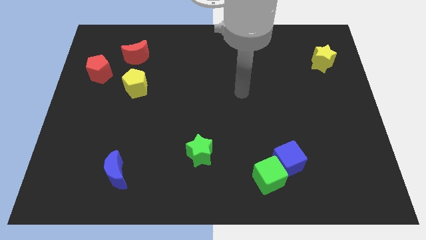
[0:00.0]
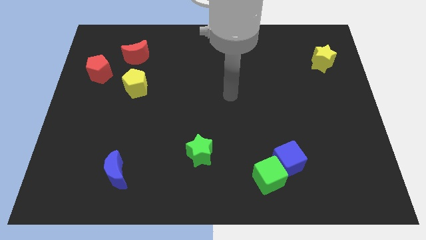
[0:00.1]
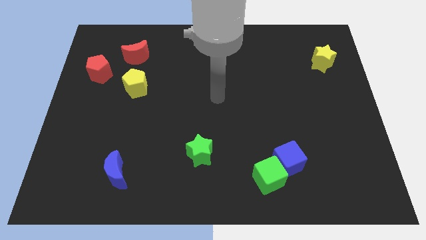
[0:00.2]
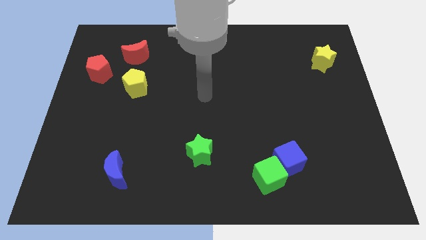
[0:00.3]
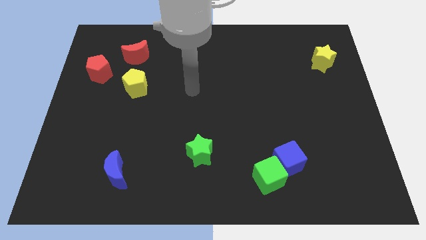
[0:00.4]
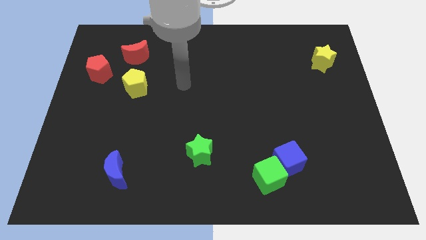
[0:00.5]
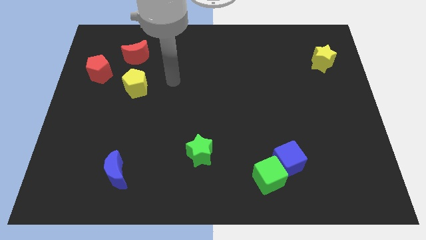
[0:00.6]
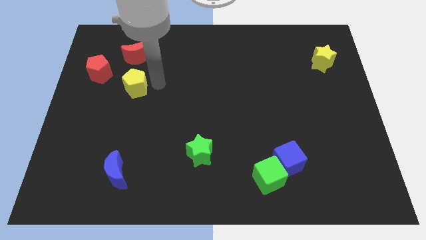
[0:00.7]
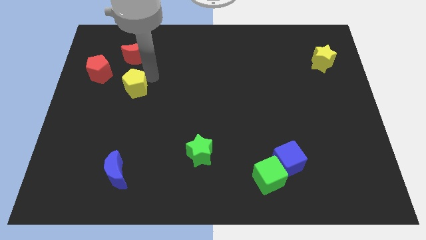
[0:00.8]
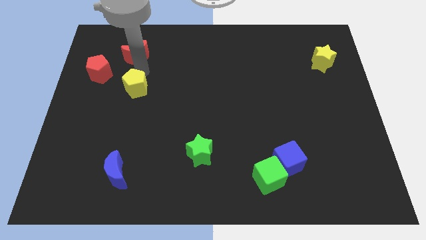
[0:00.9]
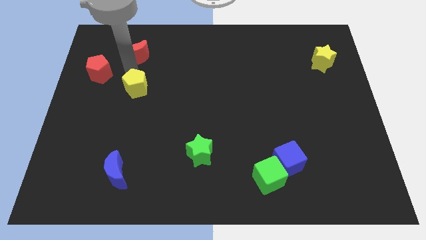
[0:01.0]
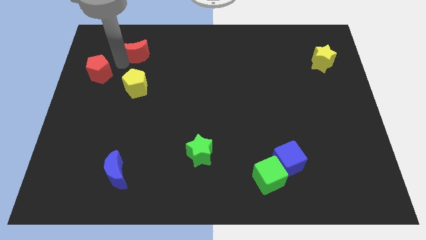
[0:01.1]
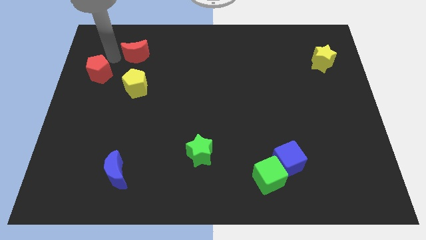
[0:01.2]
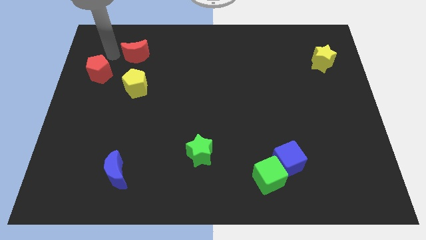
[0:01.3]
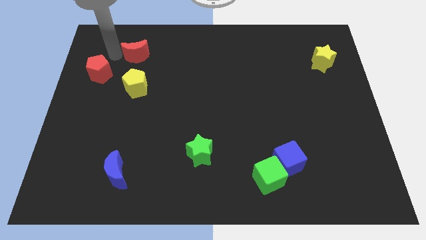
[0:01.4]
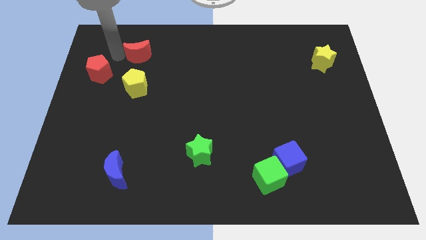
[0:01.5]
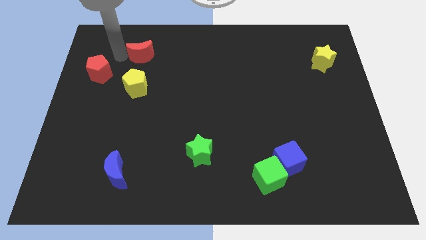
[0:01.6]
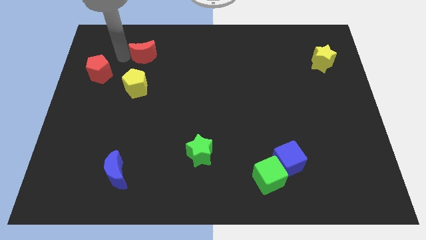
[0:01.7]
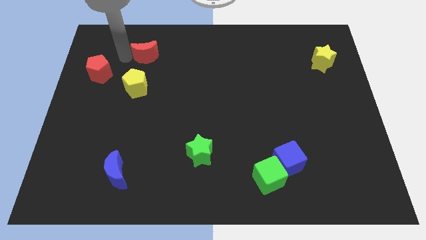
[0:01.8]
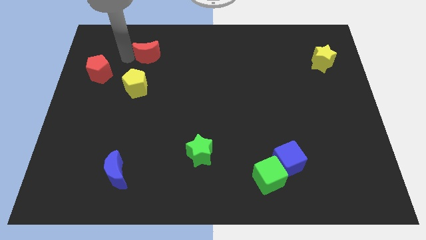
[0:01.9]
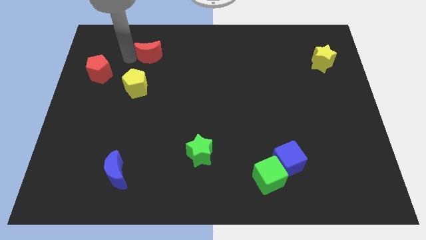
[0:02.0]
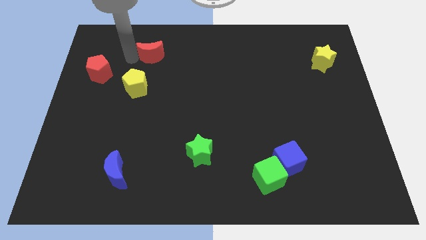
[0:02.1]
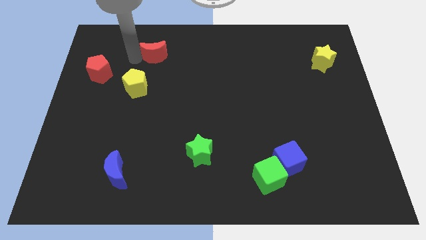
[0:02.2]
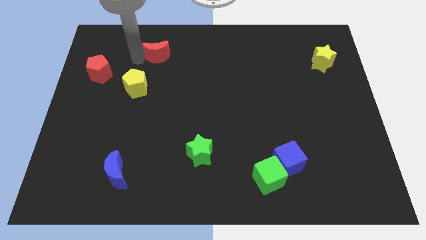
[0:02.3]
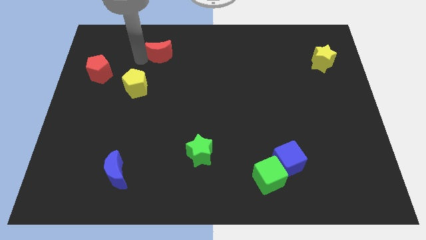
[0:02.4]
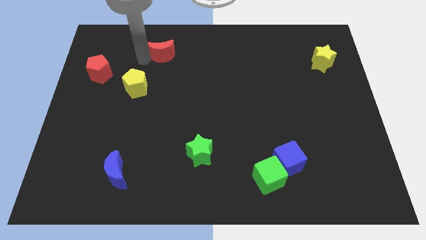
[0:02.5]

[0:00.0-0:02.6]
slide the red moon right a bit

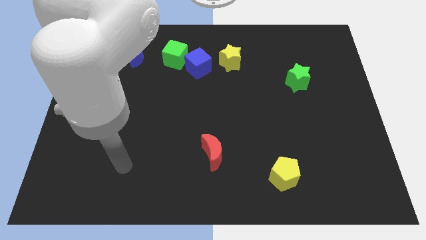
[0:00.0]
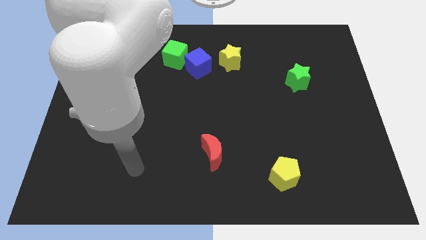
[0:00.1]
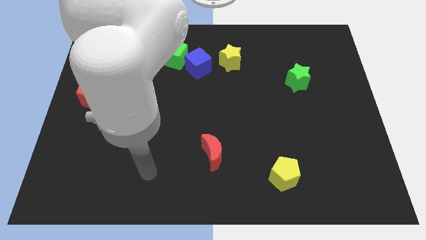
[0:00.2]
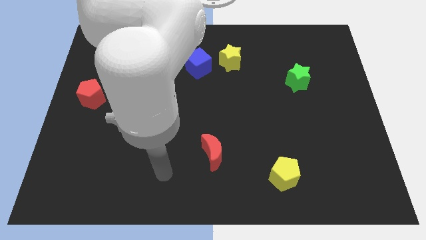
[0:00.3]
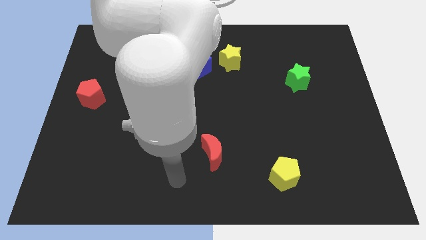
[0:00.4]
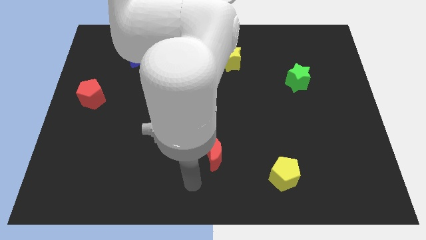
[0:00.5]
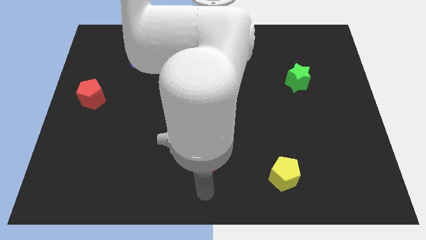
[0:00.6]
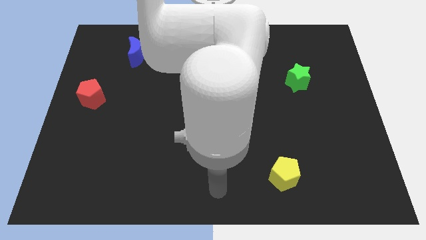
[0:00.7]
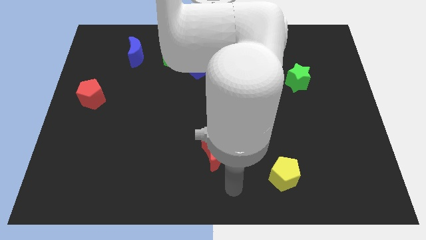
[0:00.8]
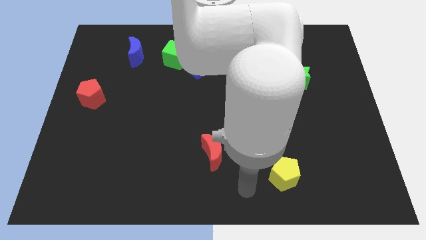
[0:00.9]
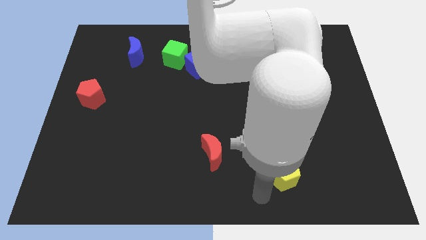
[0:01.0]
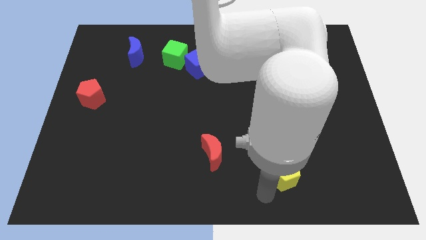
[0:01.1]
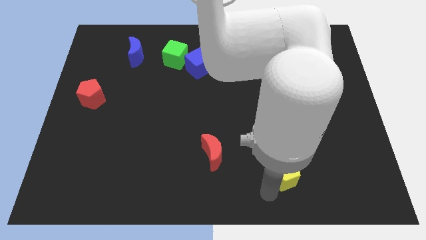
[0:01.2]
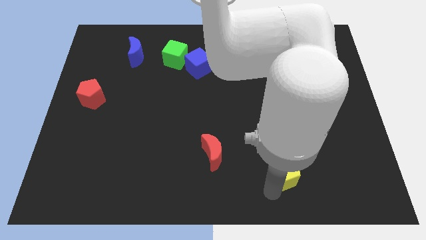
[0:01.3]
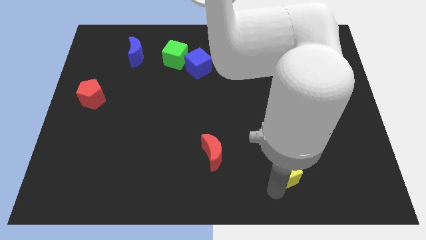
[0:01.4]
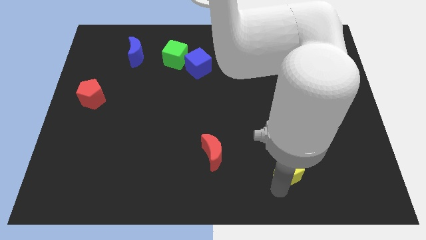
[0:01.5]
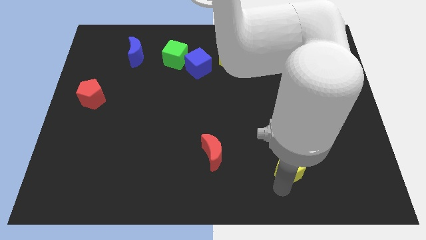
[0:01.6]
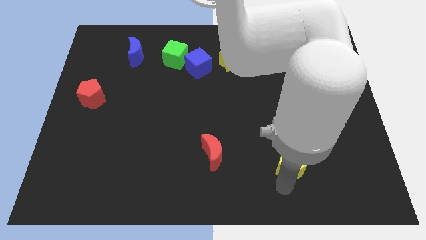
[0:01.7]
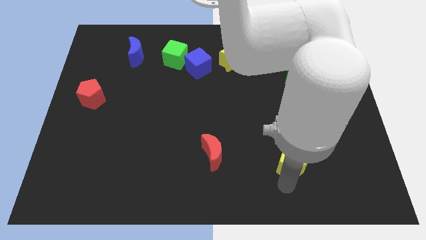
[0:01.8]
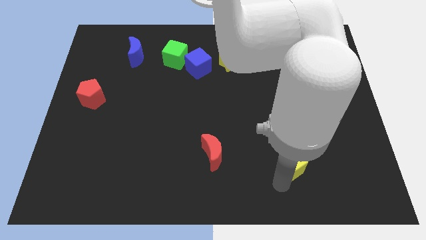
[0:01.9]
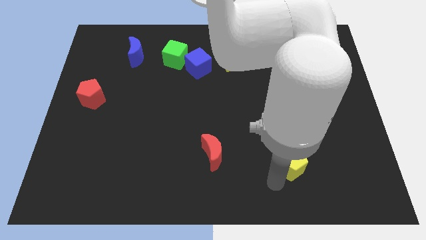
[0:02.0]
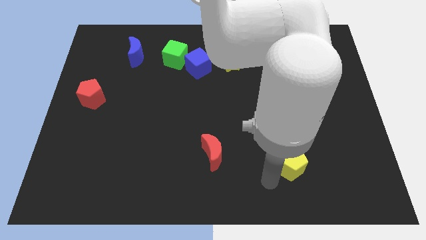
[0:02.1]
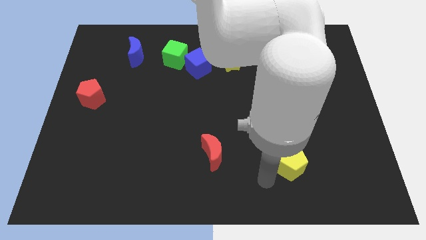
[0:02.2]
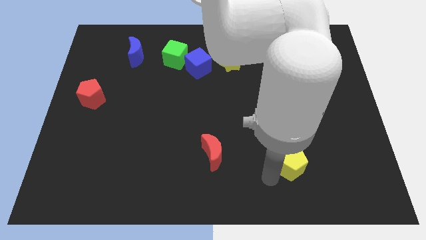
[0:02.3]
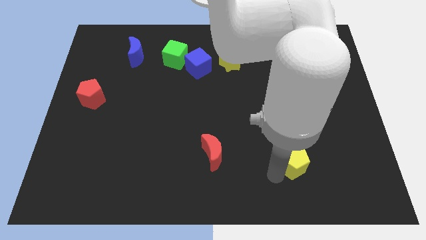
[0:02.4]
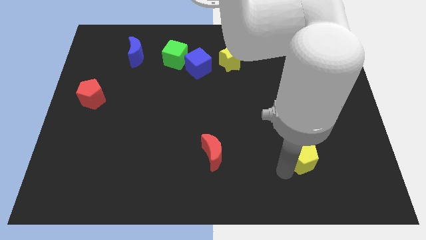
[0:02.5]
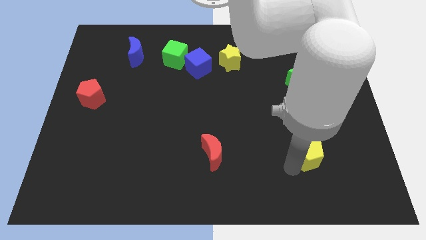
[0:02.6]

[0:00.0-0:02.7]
push the yellow pentagon a little bit upwards and to the right diagonally

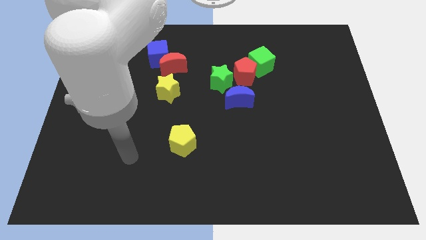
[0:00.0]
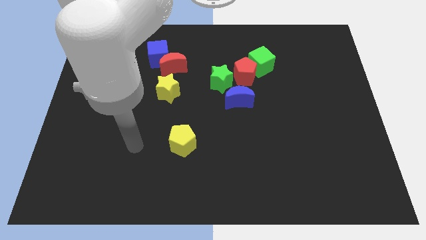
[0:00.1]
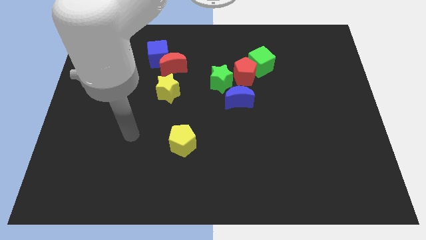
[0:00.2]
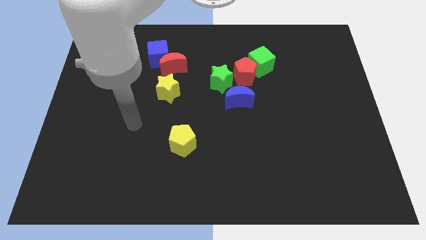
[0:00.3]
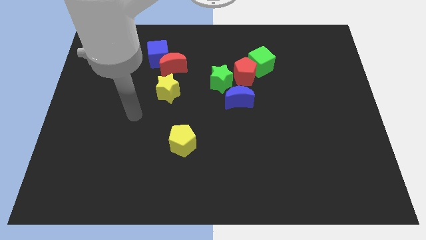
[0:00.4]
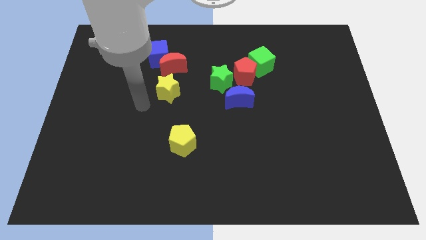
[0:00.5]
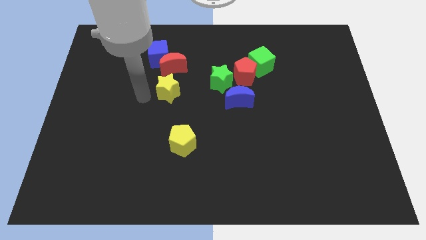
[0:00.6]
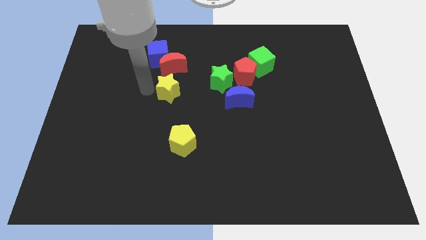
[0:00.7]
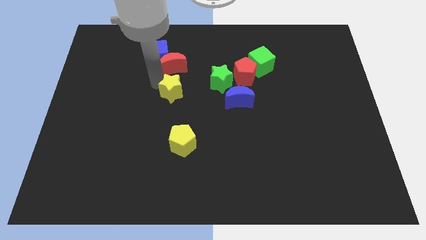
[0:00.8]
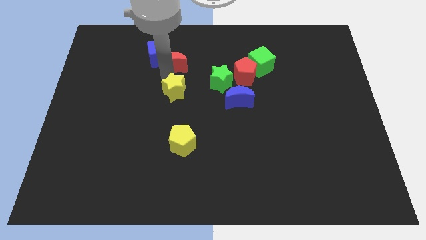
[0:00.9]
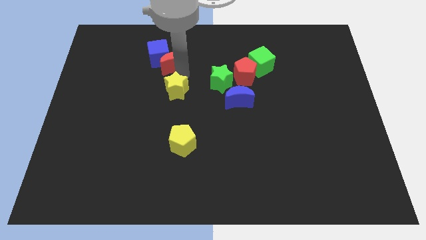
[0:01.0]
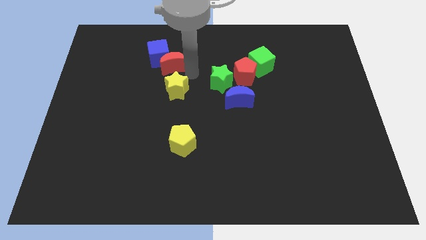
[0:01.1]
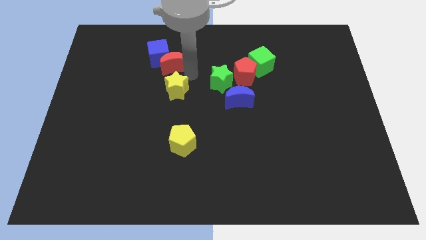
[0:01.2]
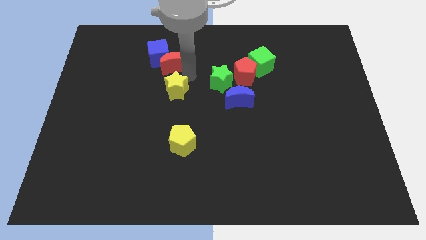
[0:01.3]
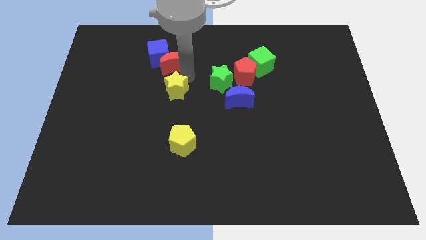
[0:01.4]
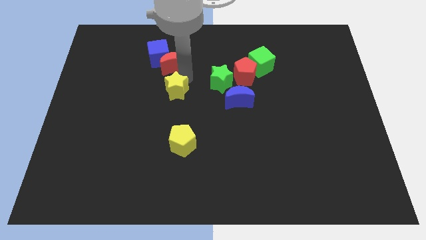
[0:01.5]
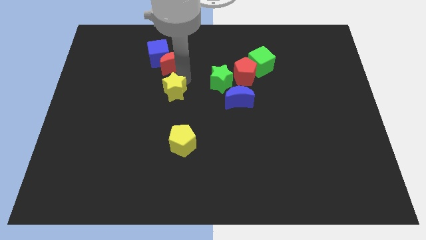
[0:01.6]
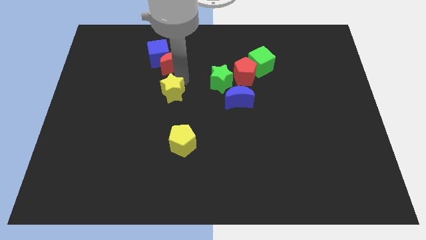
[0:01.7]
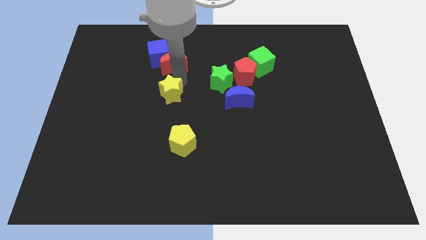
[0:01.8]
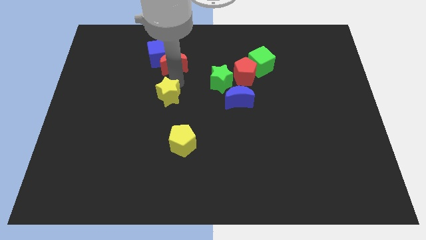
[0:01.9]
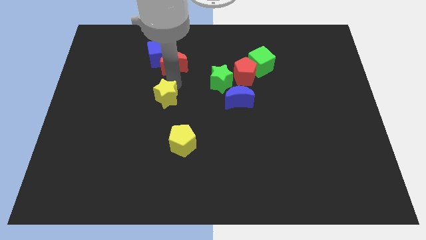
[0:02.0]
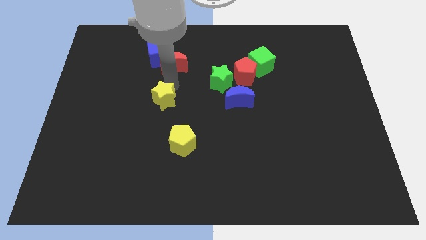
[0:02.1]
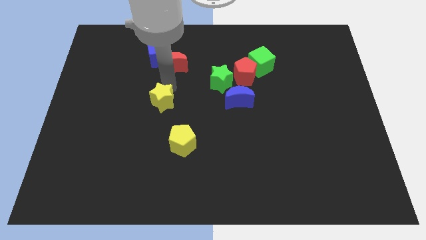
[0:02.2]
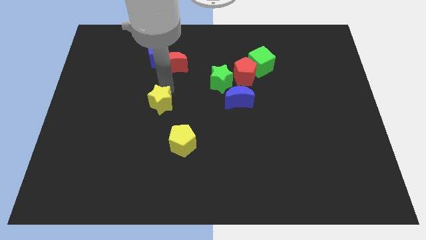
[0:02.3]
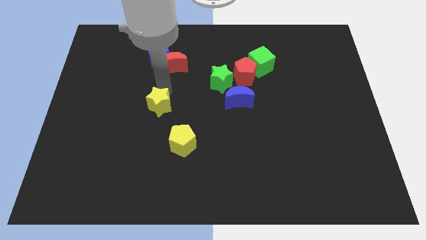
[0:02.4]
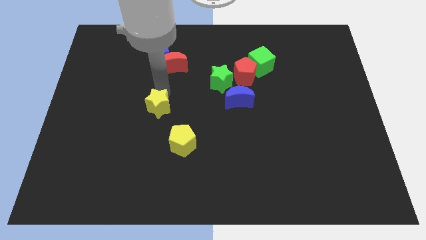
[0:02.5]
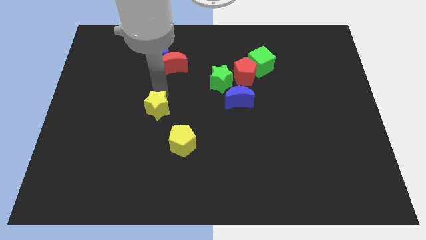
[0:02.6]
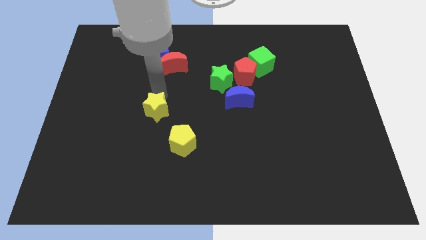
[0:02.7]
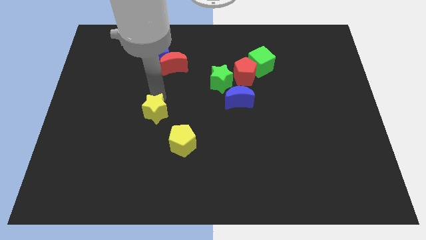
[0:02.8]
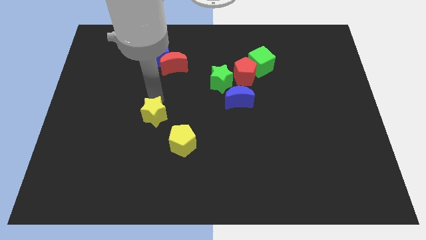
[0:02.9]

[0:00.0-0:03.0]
move the yellow star a little down
